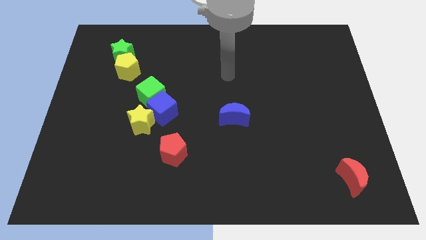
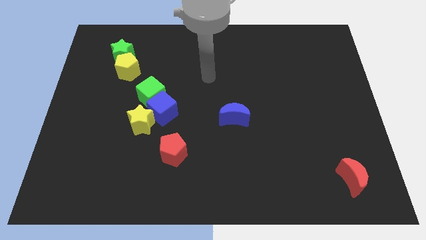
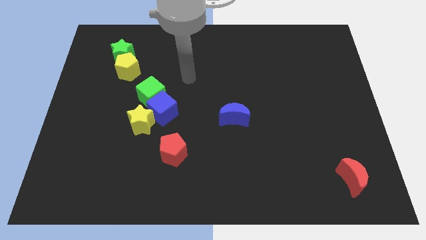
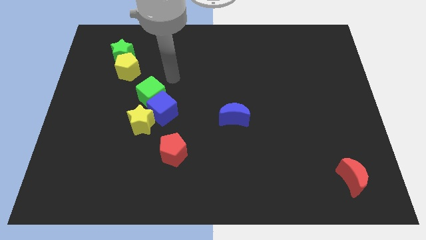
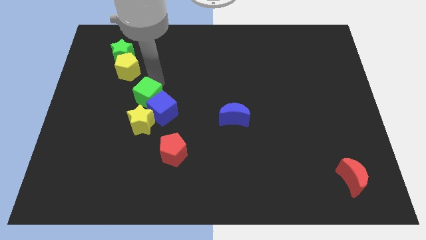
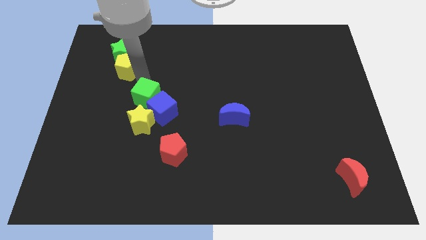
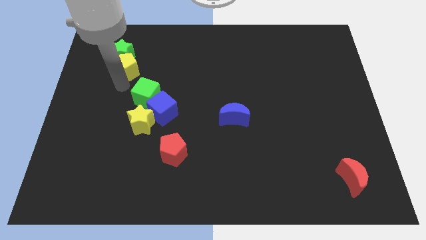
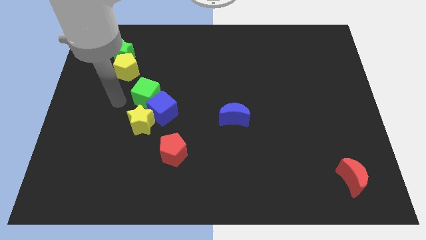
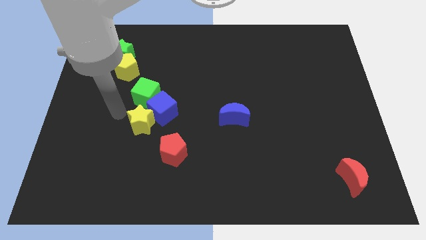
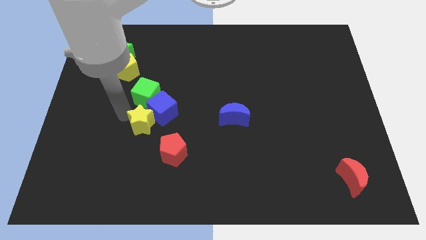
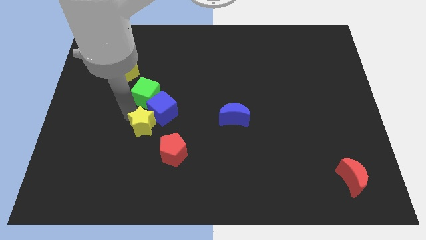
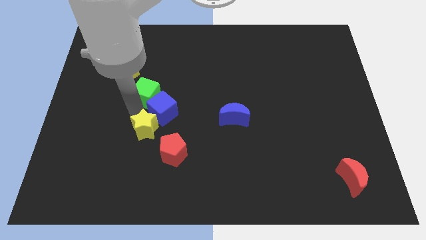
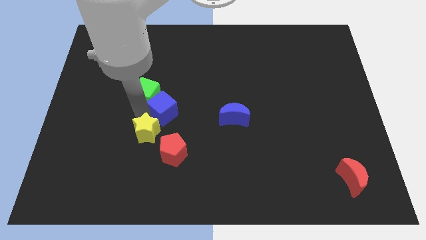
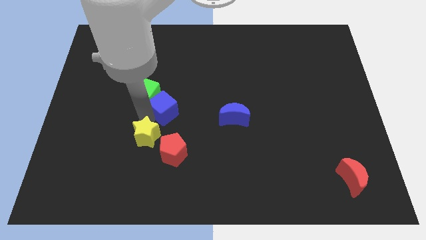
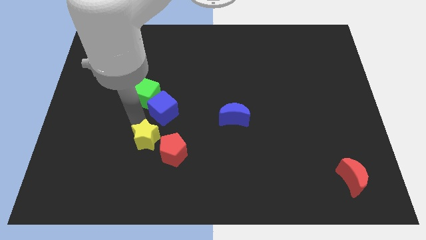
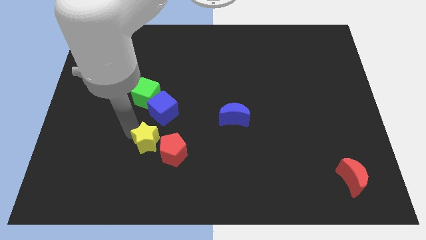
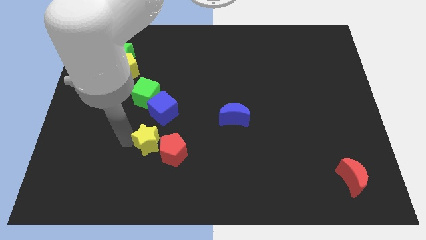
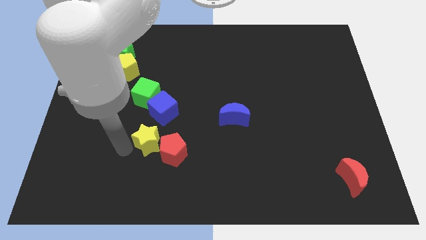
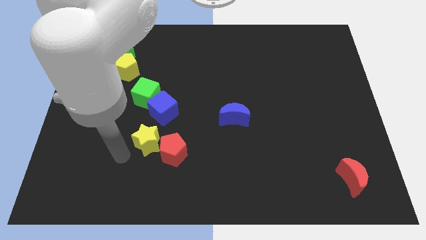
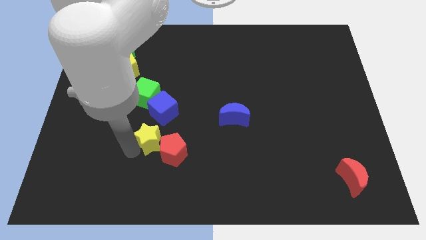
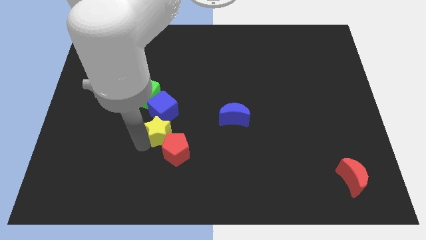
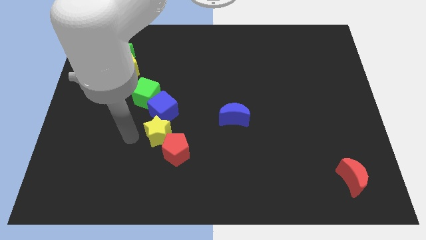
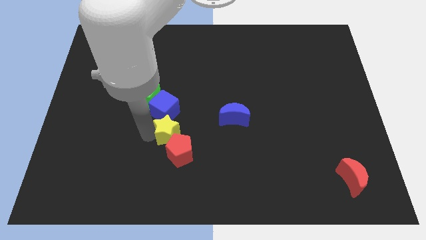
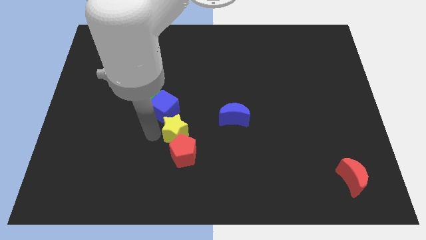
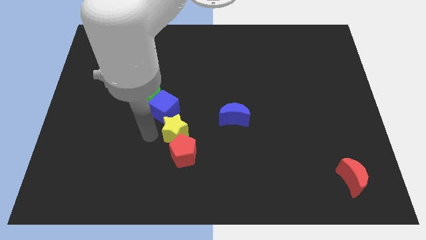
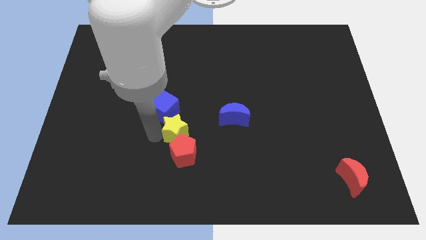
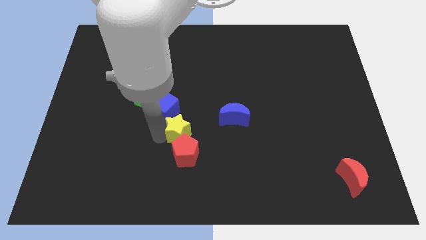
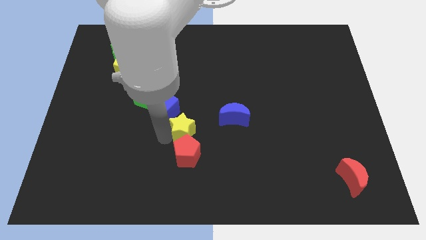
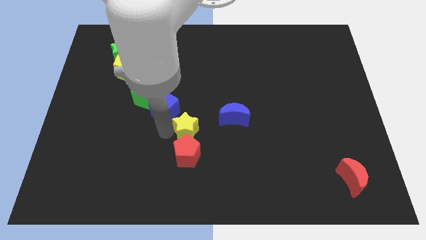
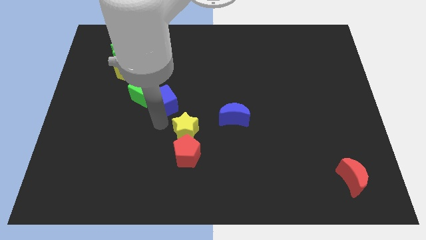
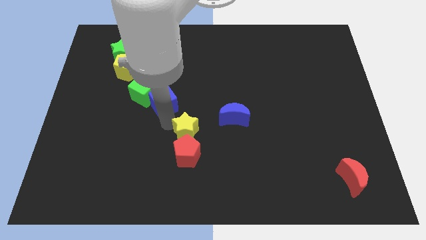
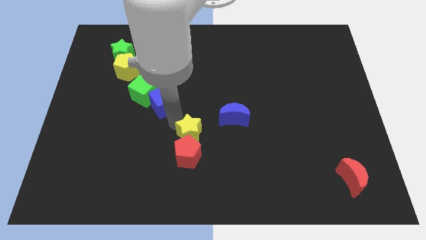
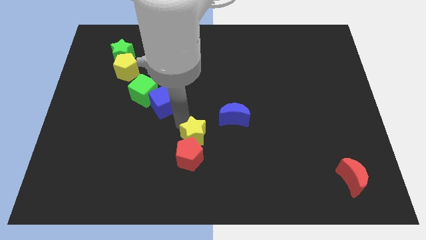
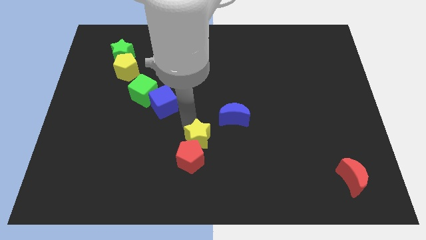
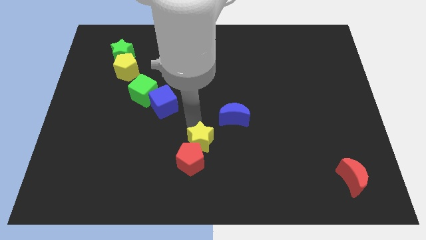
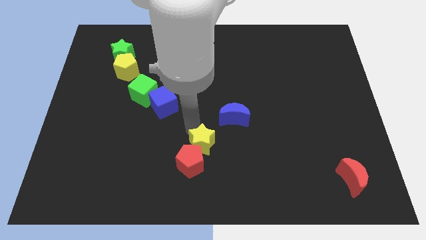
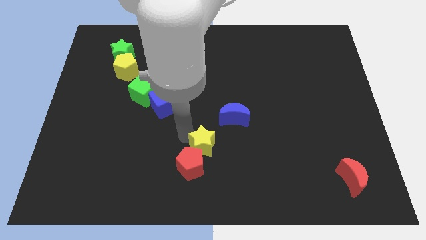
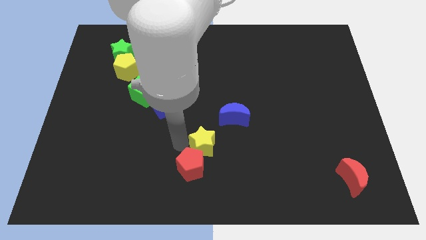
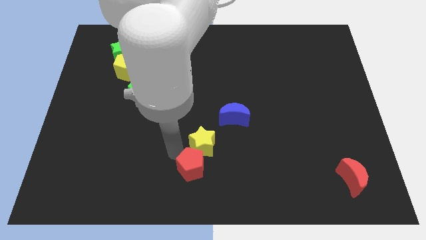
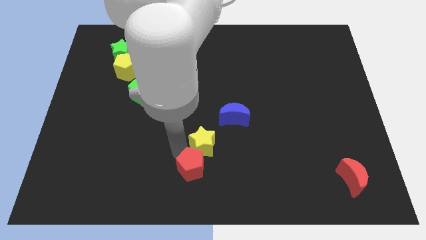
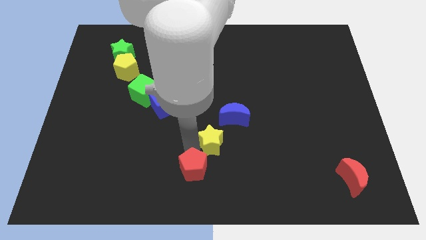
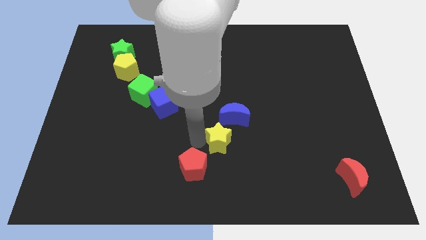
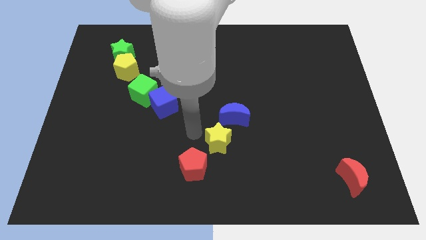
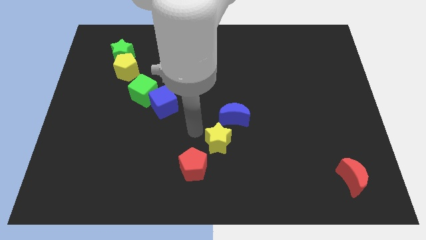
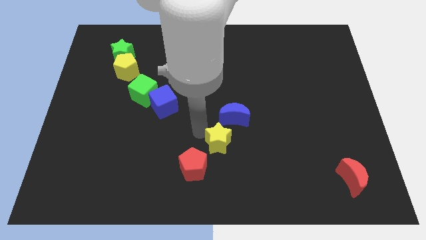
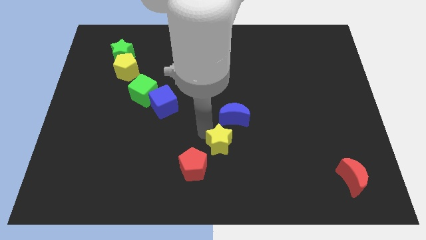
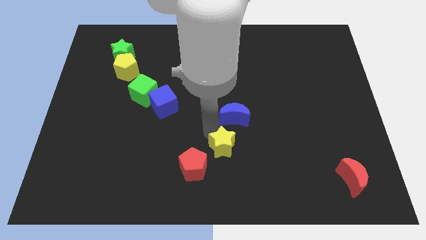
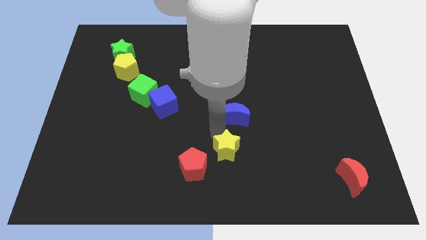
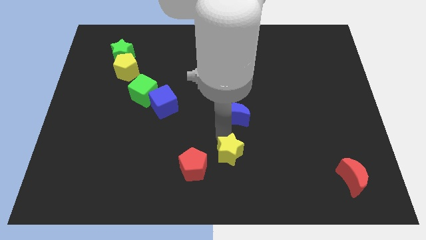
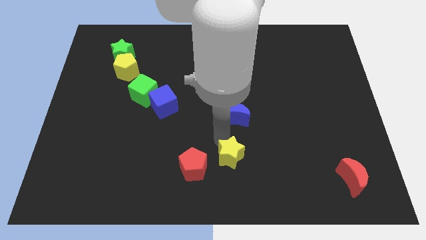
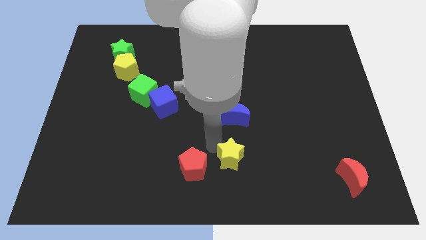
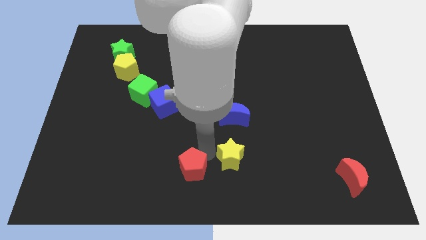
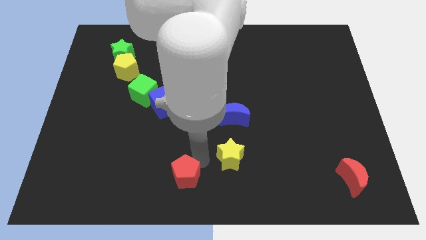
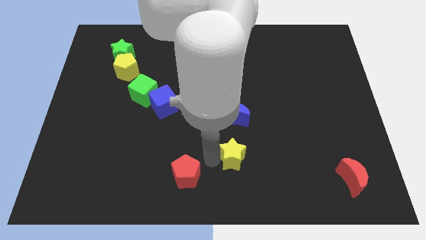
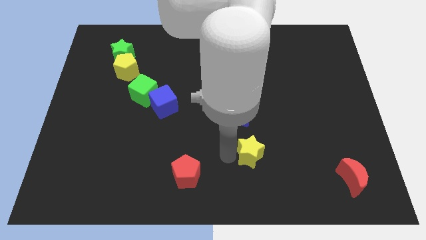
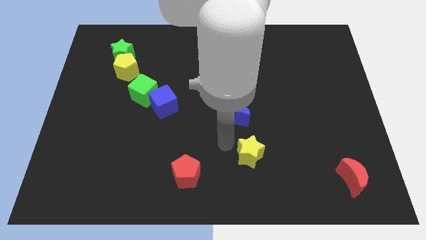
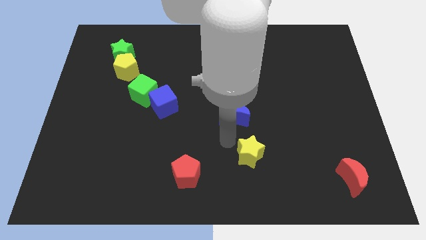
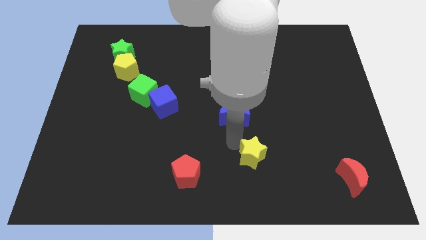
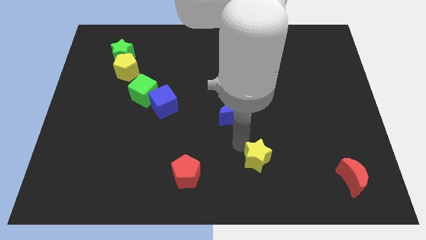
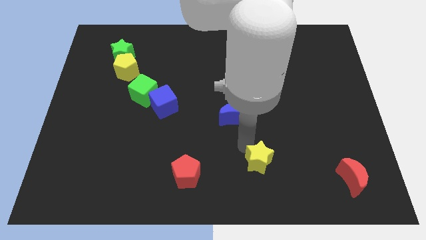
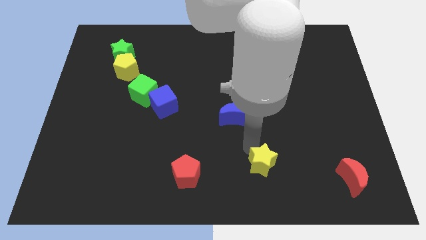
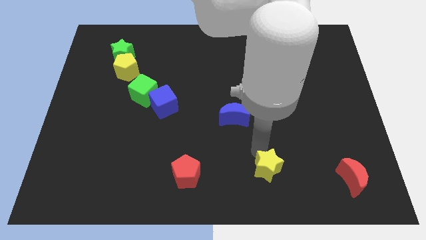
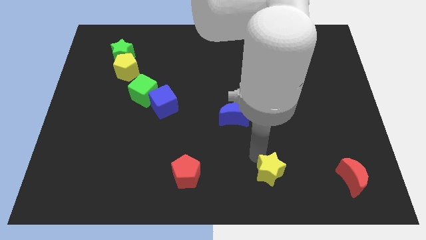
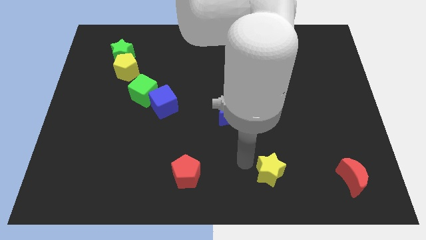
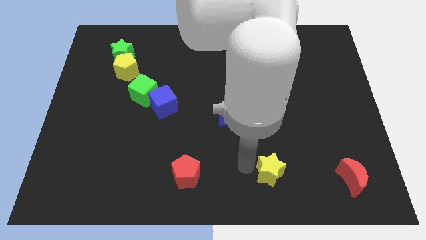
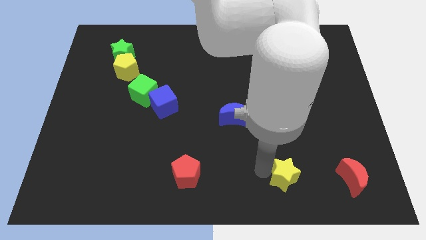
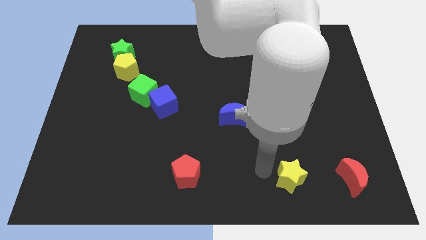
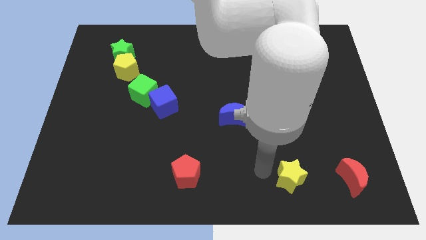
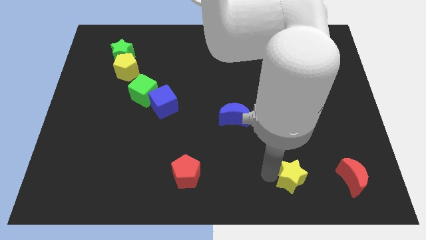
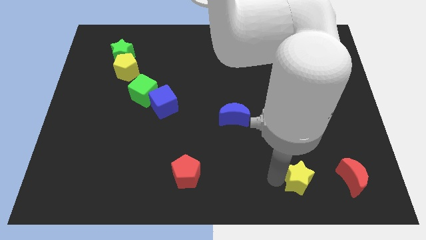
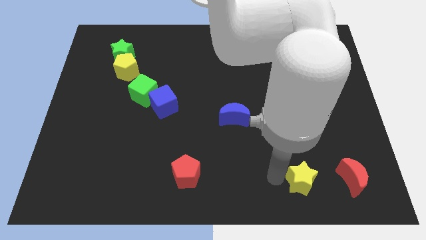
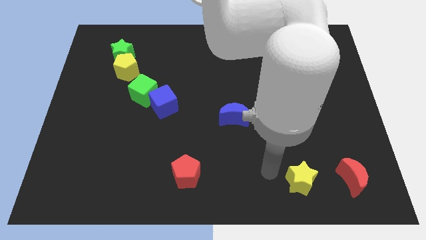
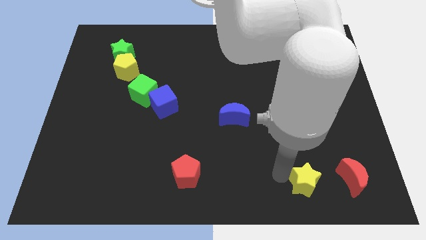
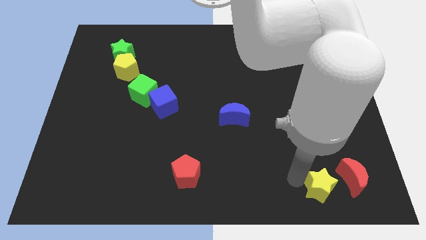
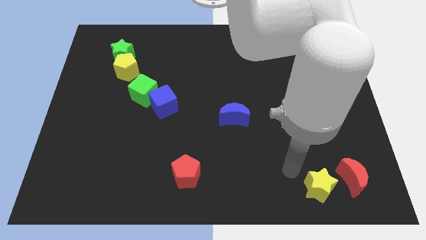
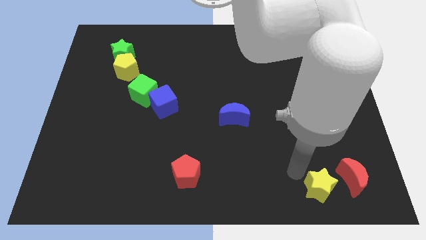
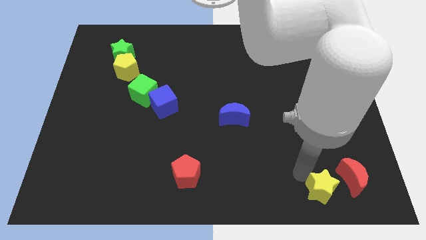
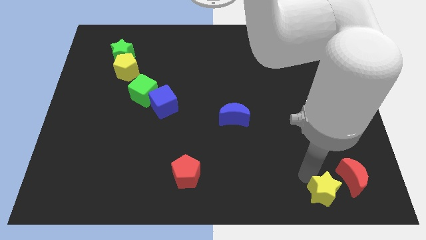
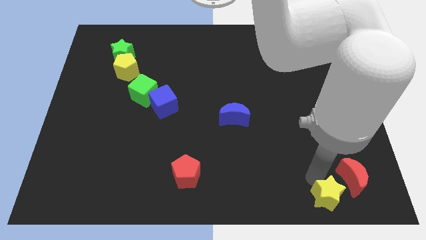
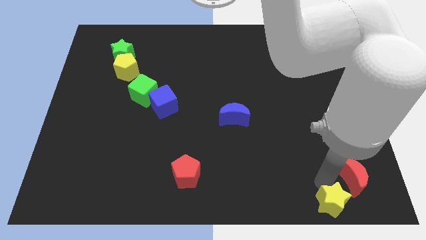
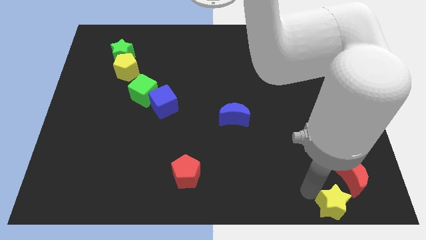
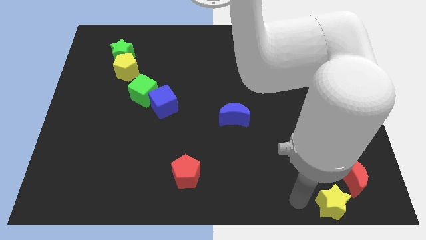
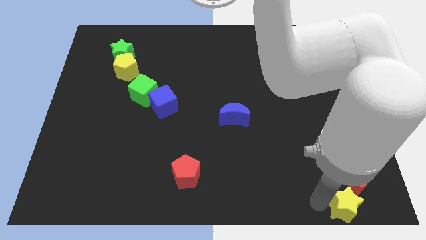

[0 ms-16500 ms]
push the yellow star to the bottom right
